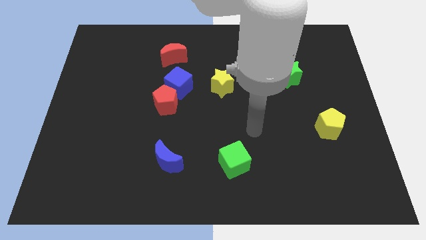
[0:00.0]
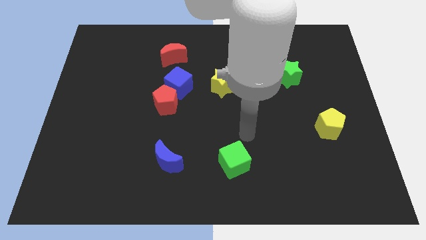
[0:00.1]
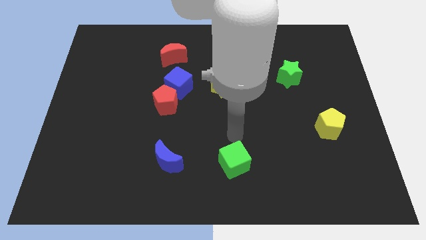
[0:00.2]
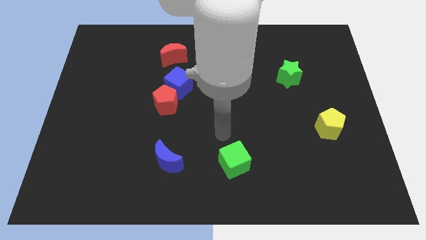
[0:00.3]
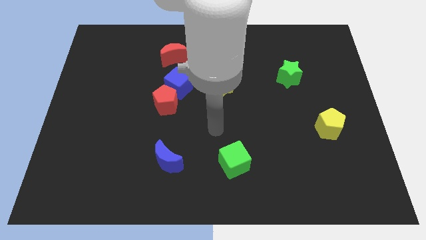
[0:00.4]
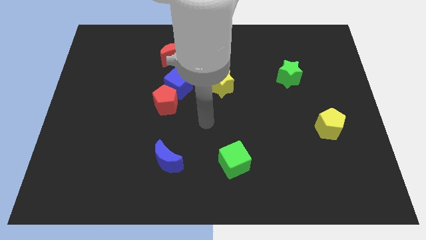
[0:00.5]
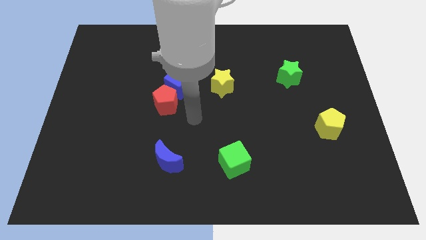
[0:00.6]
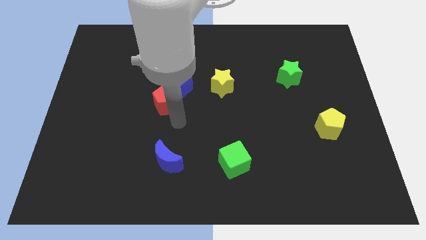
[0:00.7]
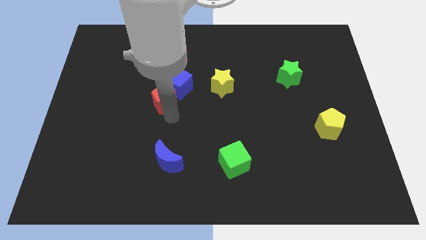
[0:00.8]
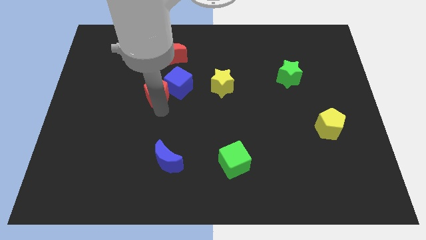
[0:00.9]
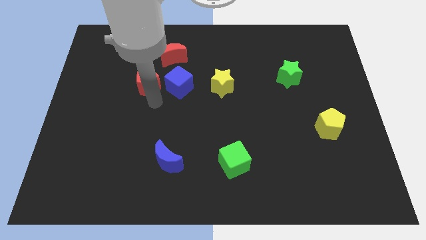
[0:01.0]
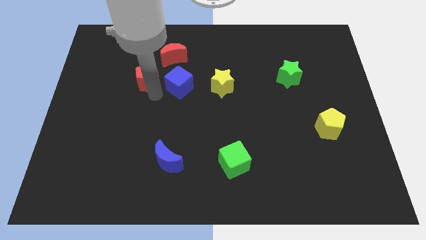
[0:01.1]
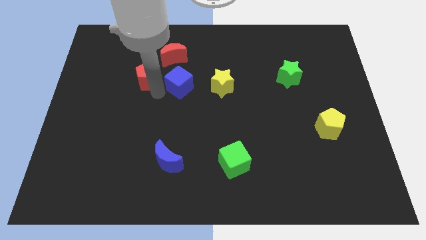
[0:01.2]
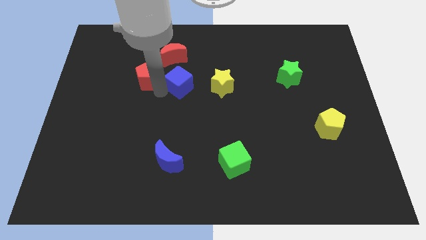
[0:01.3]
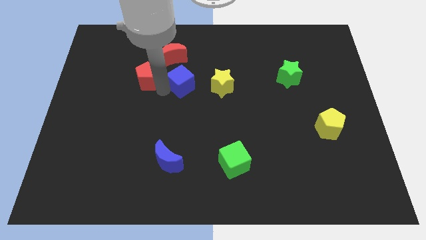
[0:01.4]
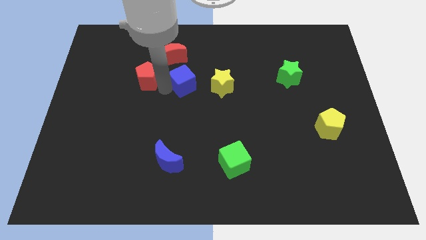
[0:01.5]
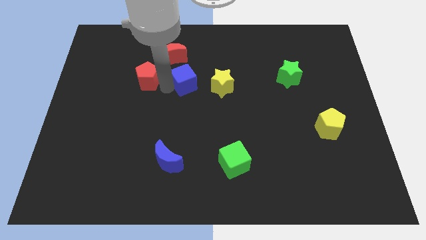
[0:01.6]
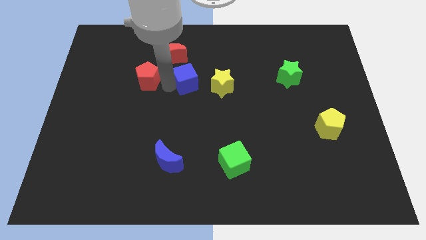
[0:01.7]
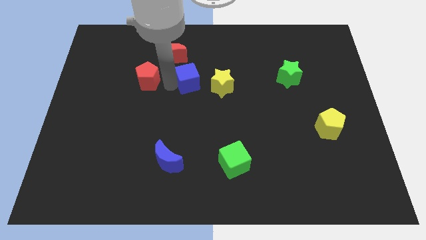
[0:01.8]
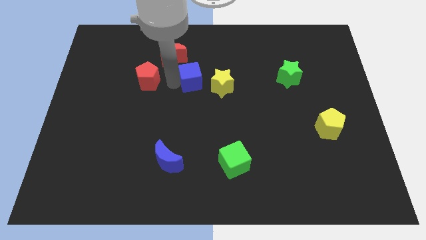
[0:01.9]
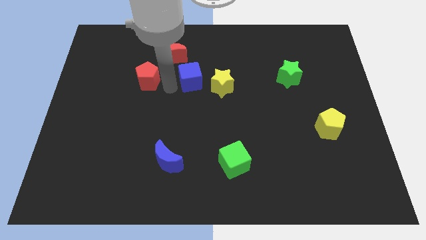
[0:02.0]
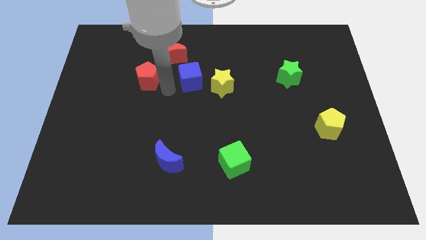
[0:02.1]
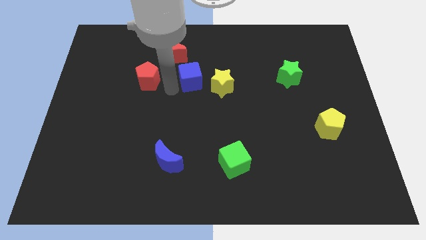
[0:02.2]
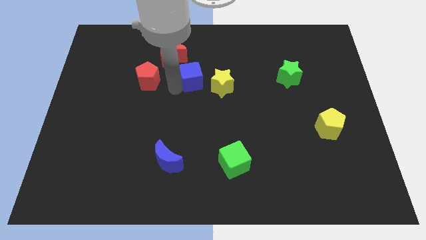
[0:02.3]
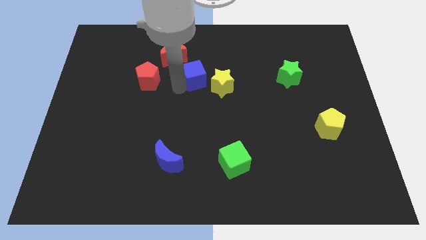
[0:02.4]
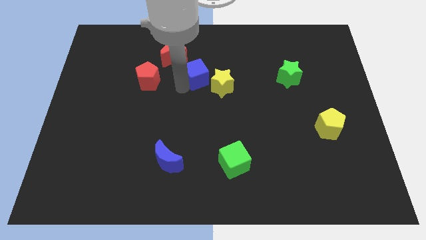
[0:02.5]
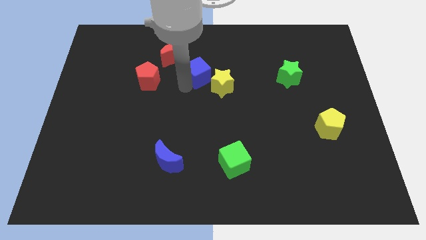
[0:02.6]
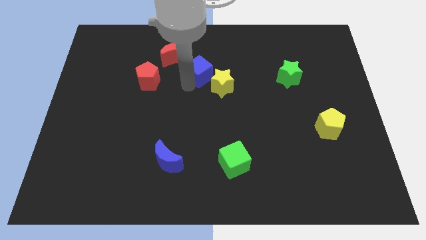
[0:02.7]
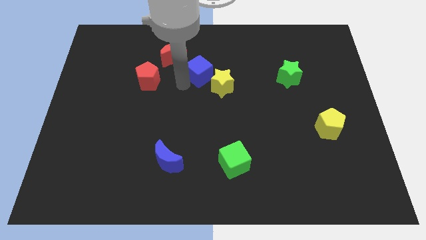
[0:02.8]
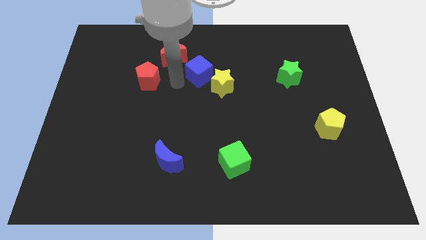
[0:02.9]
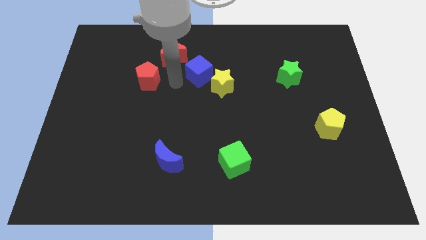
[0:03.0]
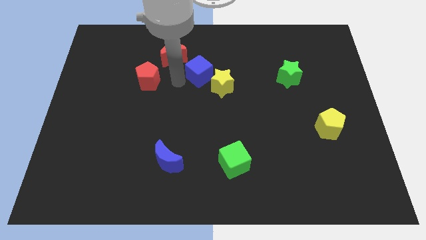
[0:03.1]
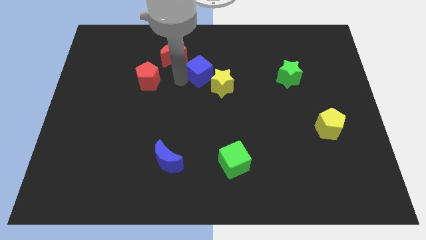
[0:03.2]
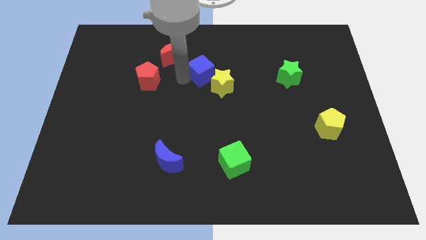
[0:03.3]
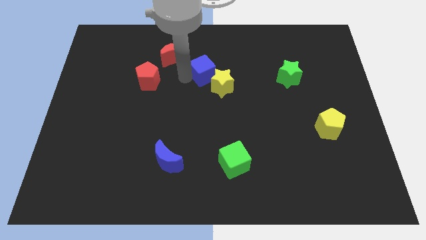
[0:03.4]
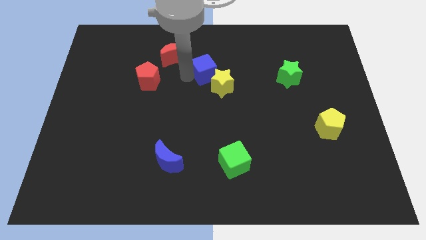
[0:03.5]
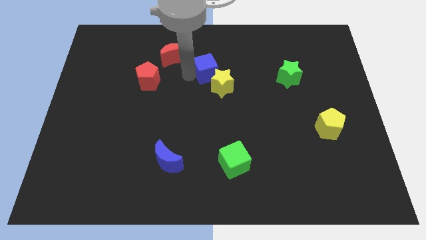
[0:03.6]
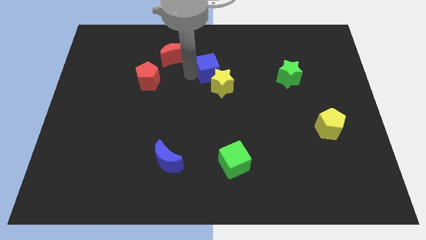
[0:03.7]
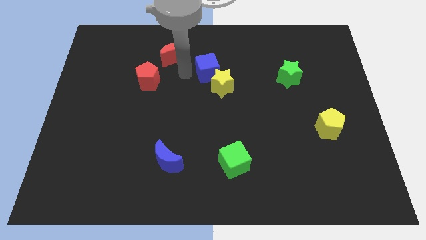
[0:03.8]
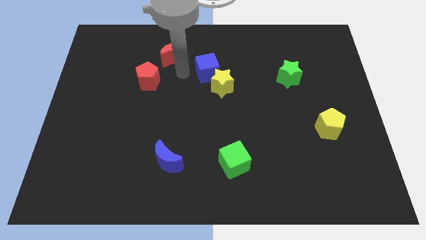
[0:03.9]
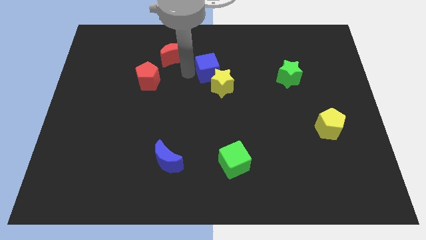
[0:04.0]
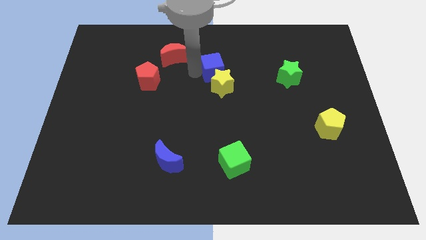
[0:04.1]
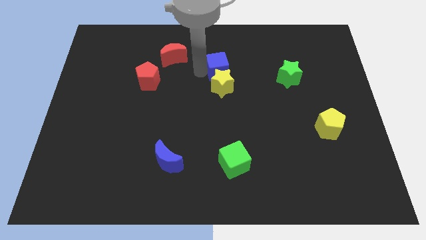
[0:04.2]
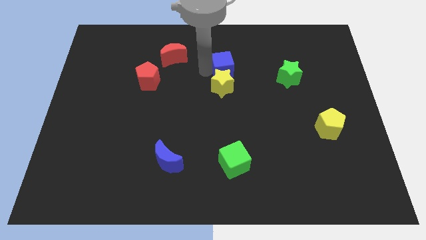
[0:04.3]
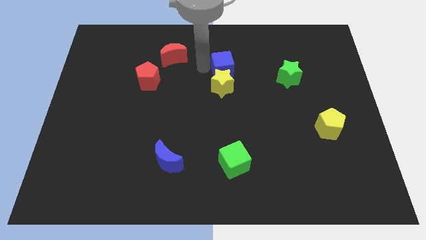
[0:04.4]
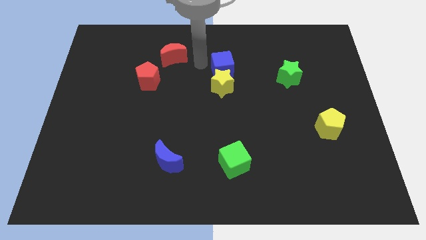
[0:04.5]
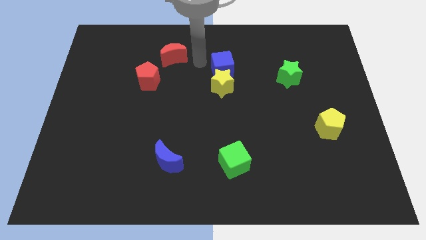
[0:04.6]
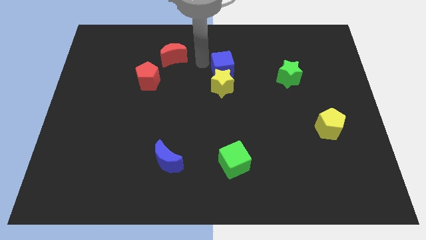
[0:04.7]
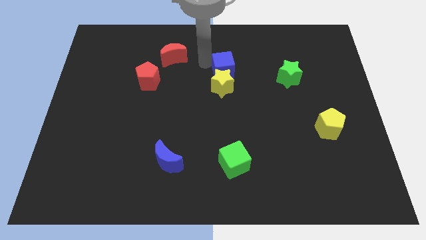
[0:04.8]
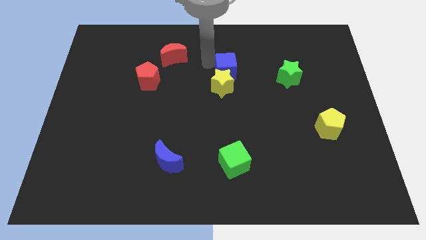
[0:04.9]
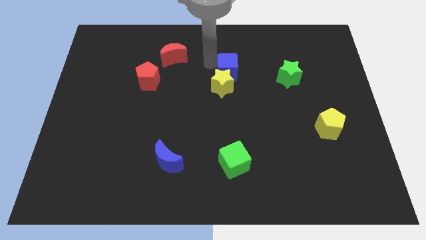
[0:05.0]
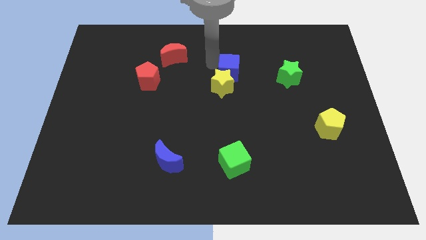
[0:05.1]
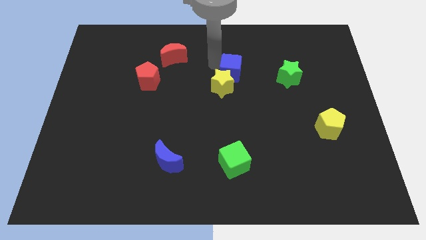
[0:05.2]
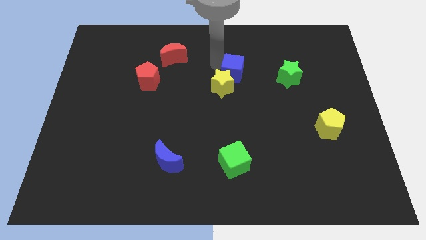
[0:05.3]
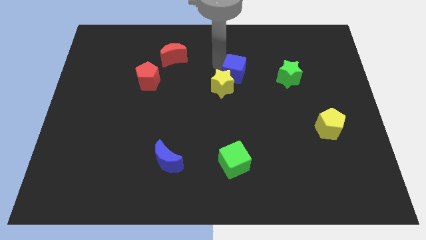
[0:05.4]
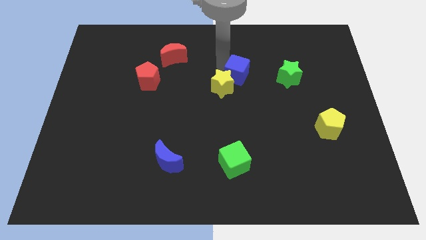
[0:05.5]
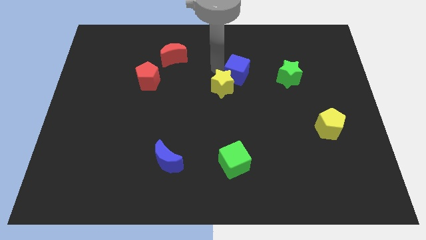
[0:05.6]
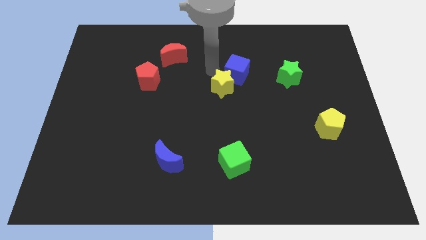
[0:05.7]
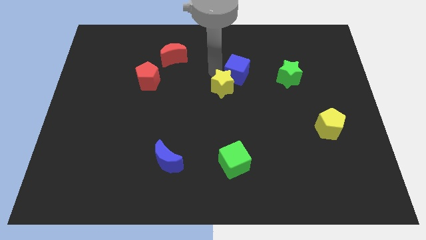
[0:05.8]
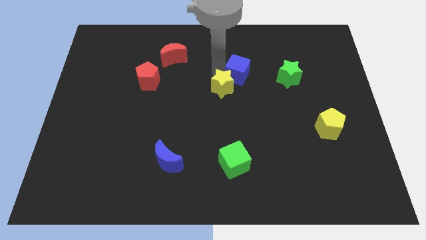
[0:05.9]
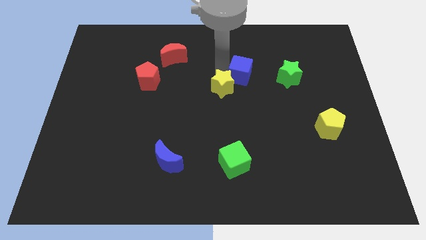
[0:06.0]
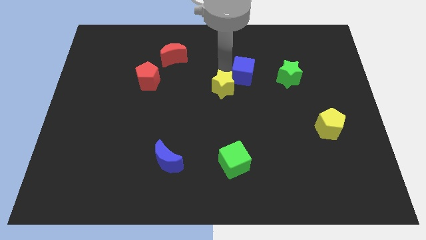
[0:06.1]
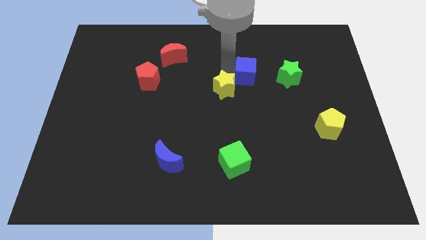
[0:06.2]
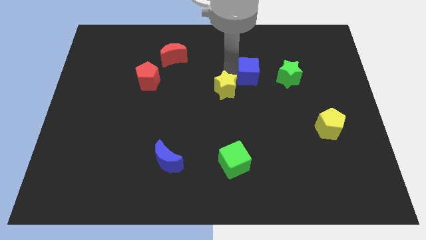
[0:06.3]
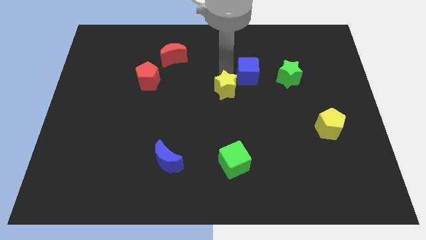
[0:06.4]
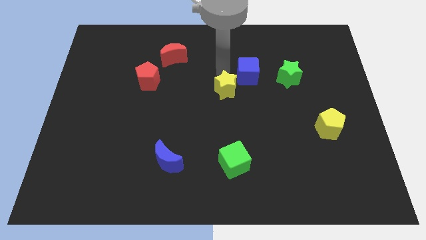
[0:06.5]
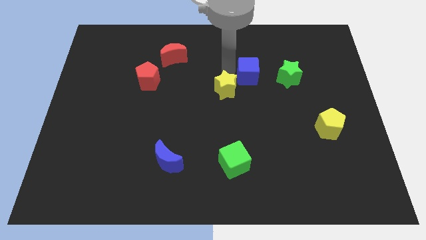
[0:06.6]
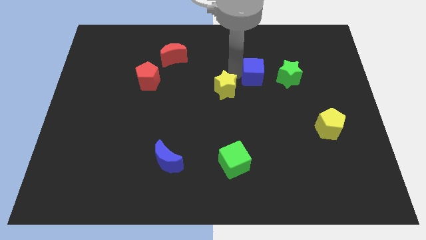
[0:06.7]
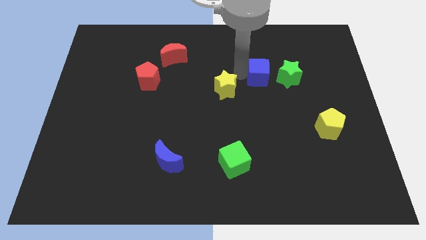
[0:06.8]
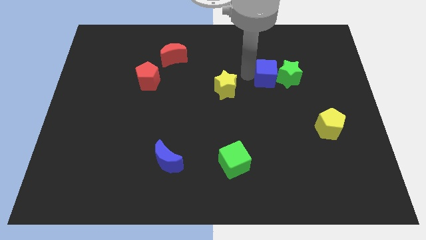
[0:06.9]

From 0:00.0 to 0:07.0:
move the blue cube next to the green star

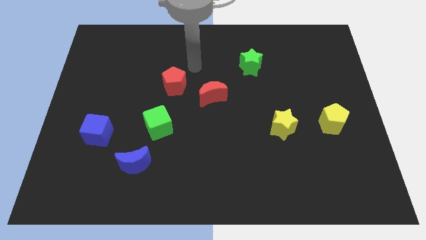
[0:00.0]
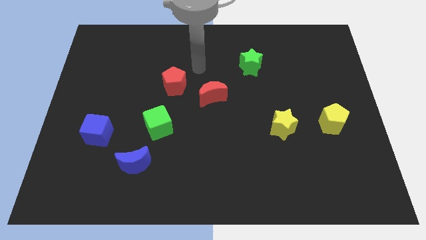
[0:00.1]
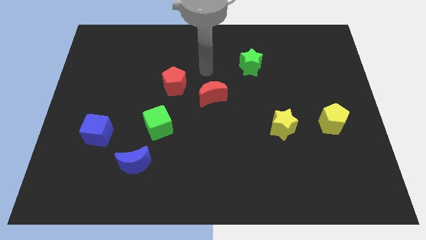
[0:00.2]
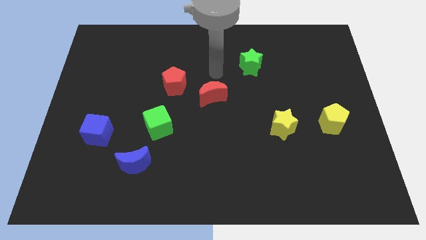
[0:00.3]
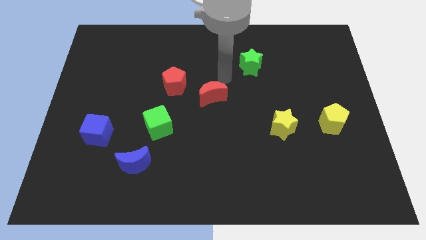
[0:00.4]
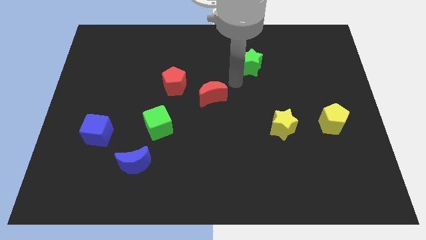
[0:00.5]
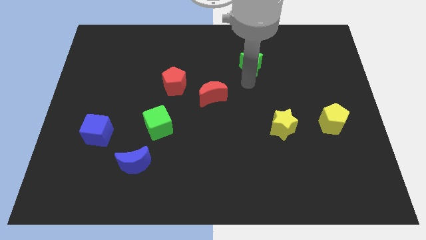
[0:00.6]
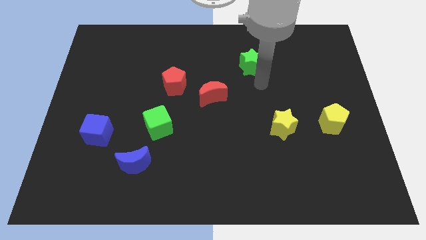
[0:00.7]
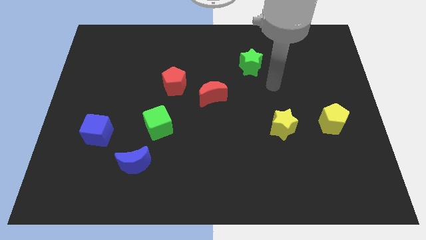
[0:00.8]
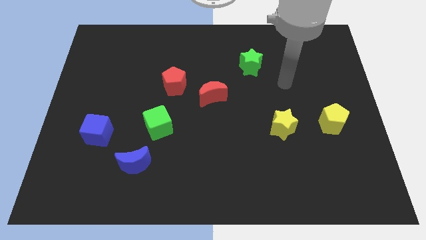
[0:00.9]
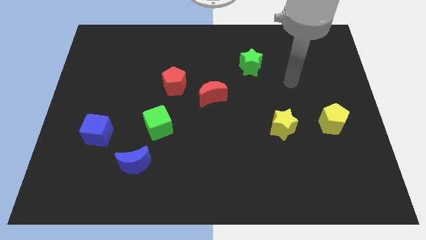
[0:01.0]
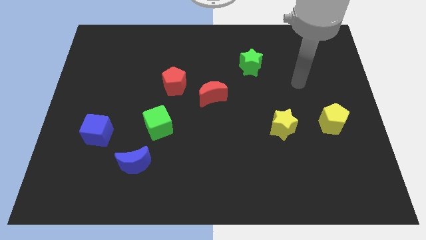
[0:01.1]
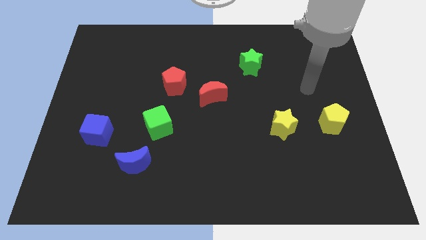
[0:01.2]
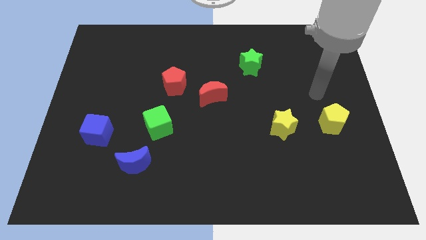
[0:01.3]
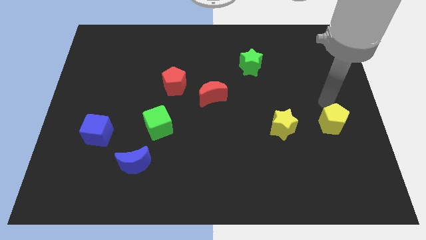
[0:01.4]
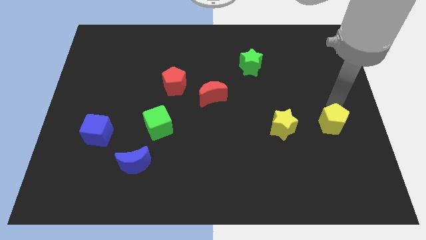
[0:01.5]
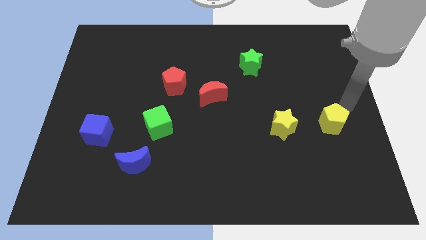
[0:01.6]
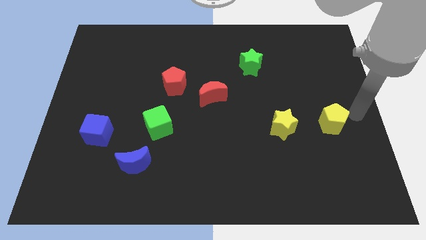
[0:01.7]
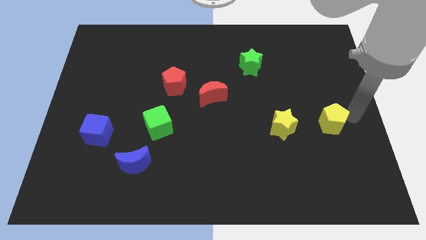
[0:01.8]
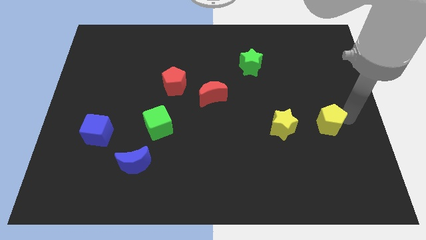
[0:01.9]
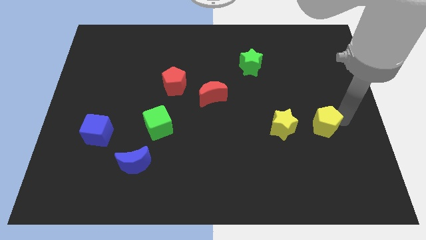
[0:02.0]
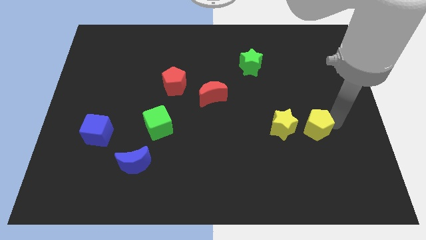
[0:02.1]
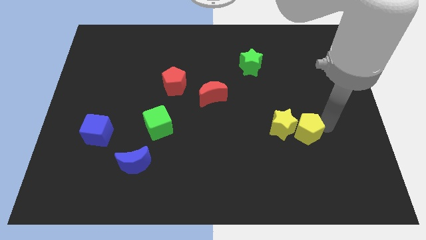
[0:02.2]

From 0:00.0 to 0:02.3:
push the yellow pentagon next to the yellow star
